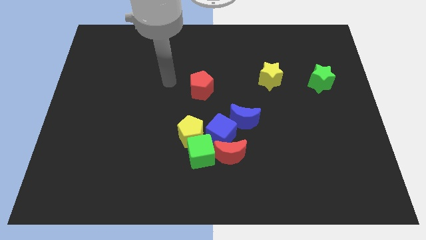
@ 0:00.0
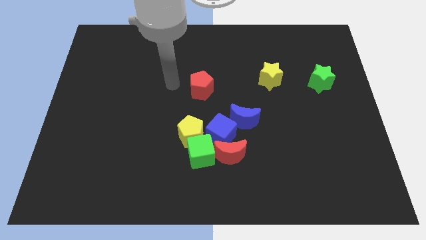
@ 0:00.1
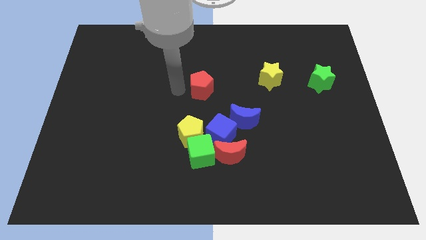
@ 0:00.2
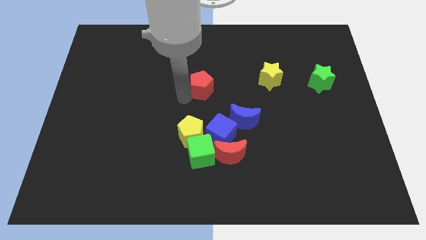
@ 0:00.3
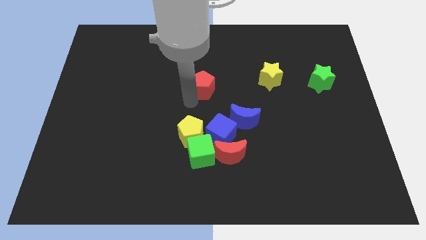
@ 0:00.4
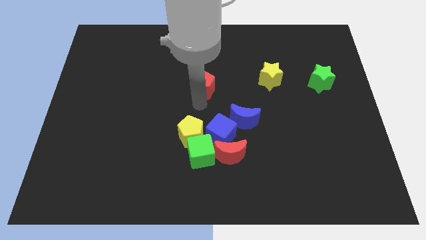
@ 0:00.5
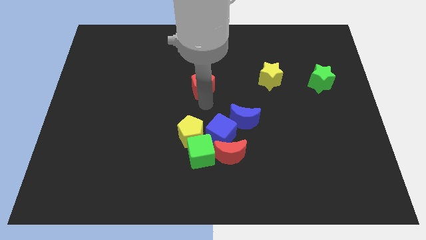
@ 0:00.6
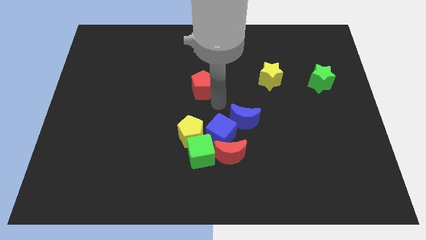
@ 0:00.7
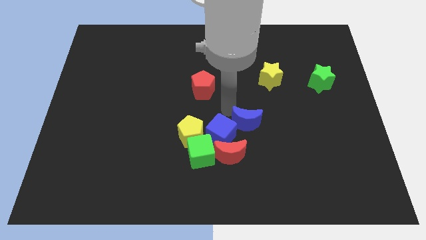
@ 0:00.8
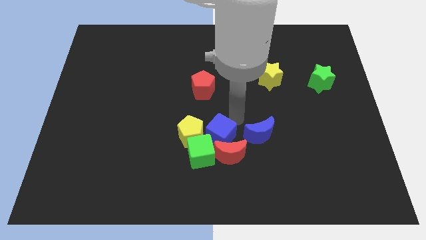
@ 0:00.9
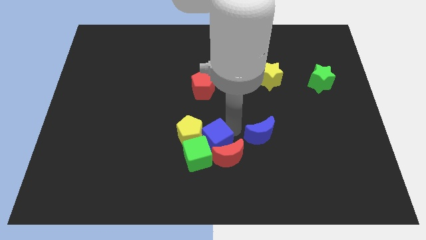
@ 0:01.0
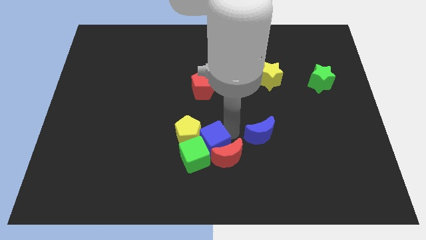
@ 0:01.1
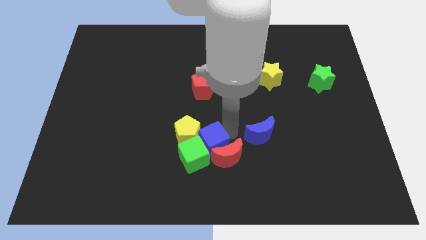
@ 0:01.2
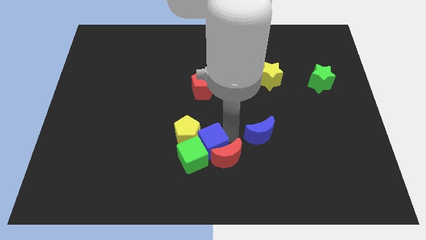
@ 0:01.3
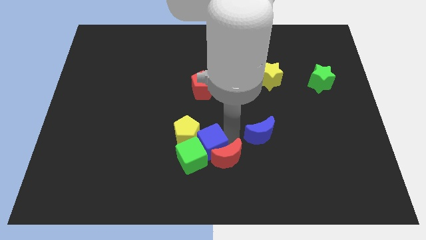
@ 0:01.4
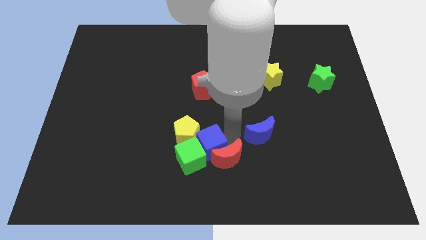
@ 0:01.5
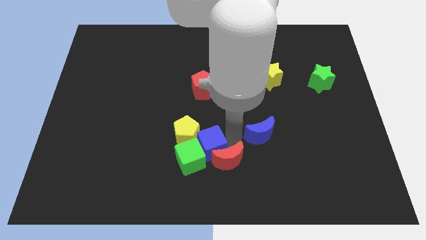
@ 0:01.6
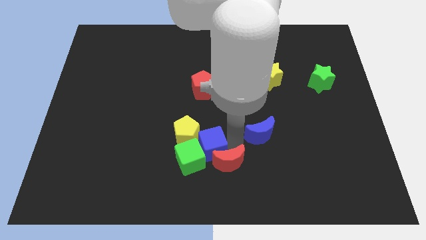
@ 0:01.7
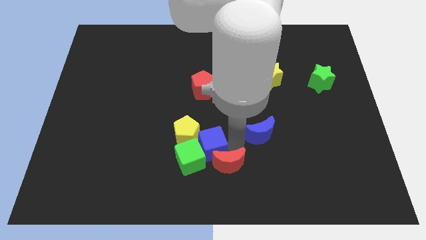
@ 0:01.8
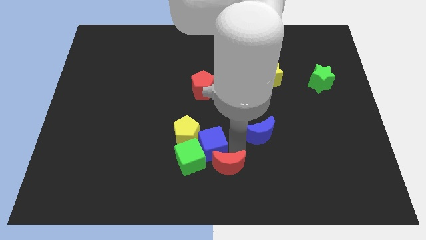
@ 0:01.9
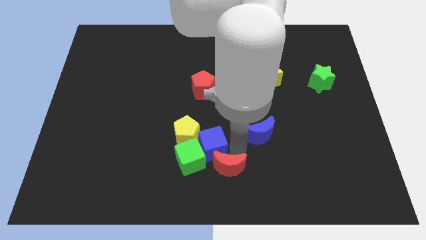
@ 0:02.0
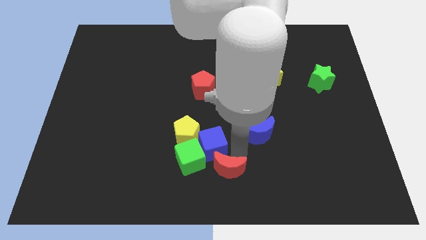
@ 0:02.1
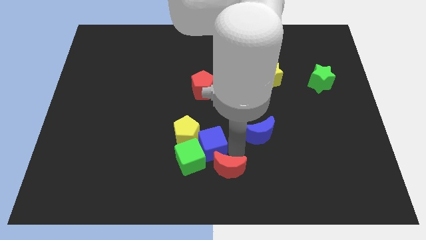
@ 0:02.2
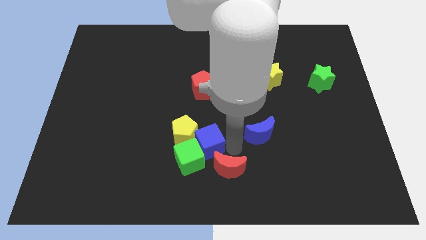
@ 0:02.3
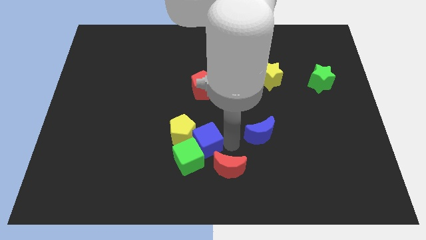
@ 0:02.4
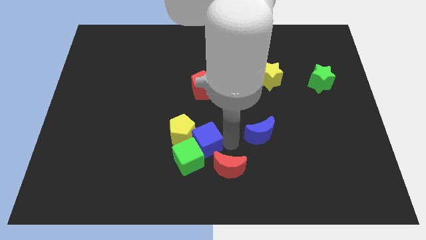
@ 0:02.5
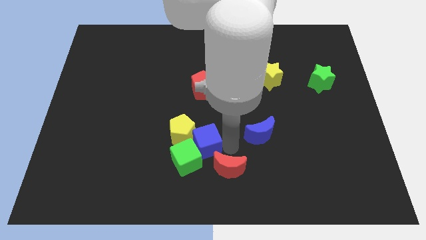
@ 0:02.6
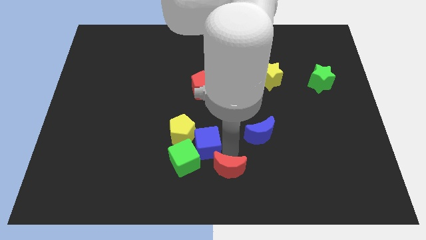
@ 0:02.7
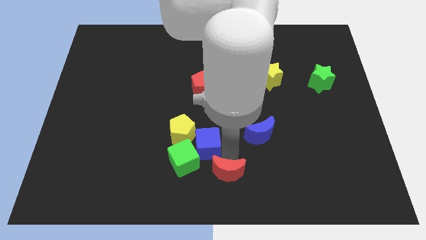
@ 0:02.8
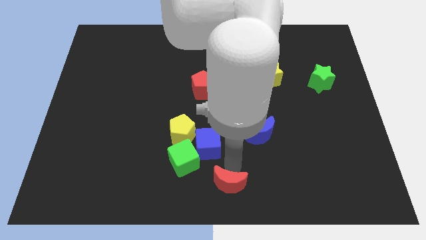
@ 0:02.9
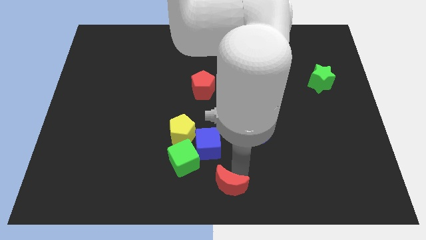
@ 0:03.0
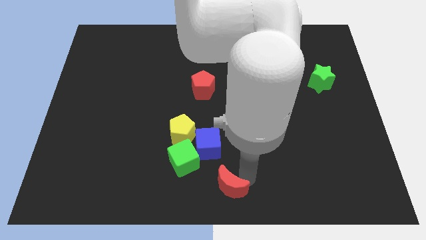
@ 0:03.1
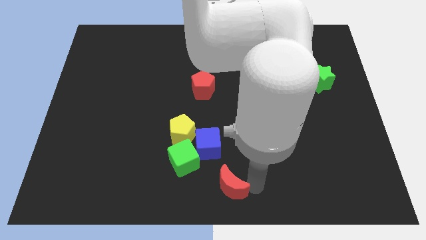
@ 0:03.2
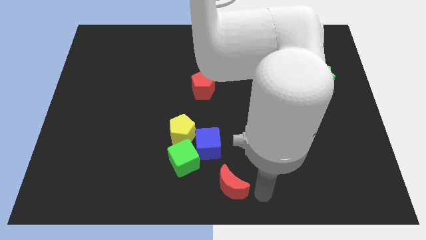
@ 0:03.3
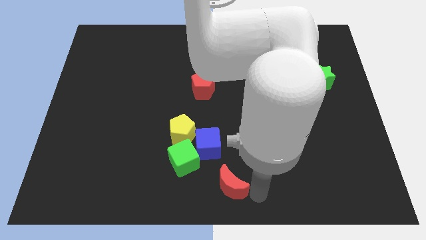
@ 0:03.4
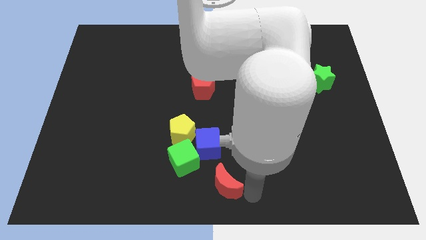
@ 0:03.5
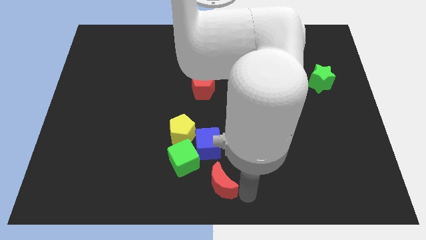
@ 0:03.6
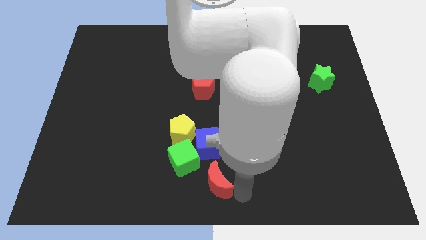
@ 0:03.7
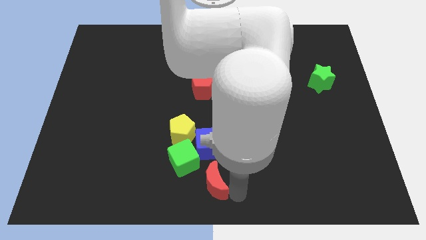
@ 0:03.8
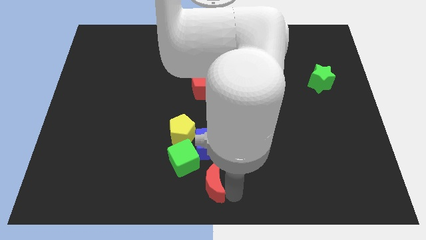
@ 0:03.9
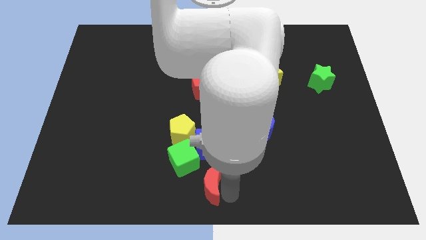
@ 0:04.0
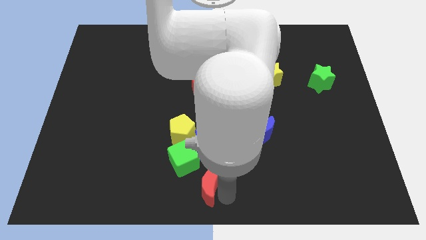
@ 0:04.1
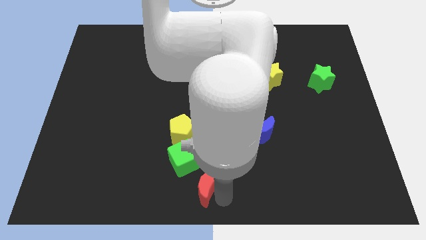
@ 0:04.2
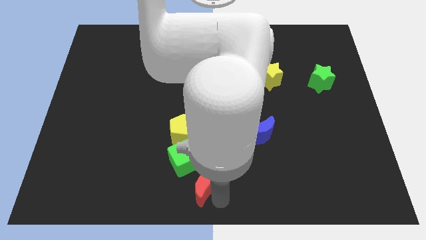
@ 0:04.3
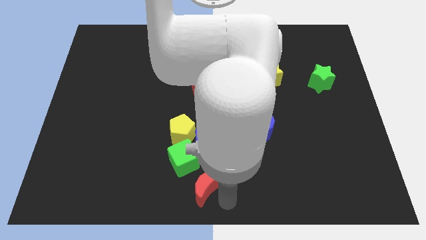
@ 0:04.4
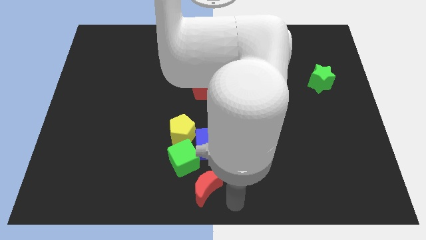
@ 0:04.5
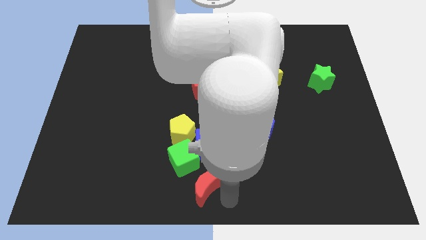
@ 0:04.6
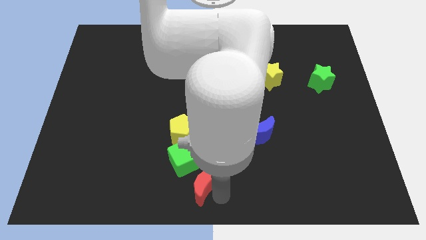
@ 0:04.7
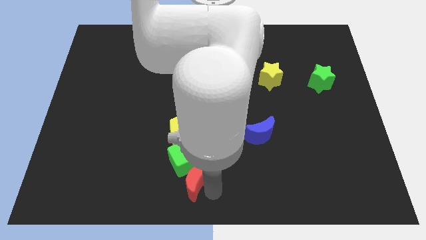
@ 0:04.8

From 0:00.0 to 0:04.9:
put the red moon to the bottom of the yellow pentagon

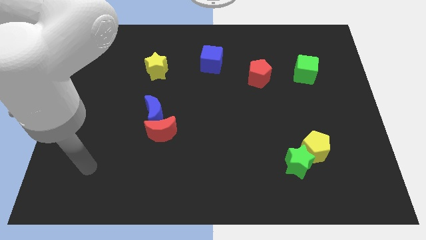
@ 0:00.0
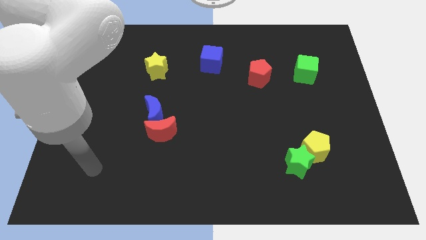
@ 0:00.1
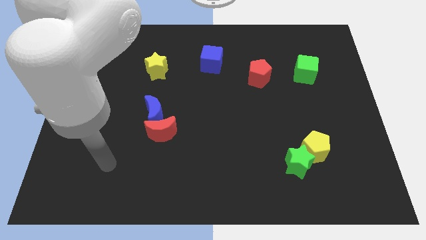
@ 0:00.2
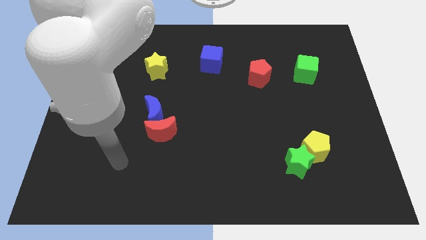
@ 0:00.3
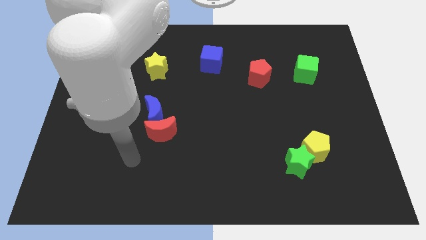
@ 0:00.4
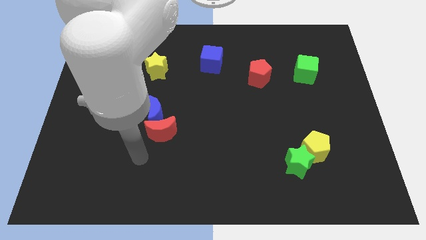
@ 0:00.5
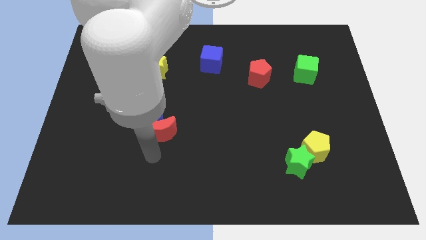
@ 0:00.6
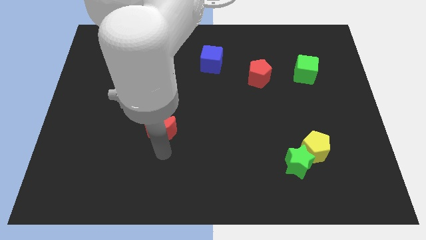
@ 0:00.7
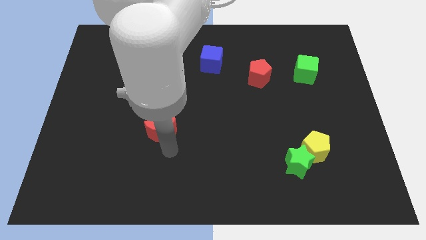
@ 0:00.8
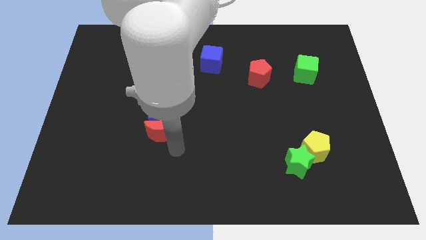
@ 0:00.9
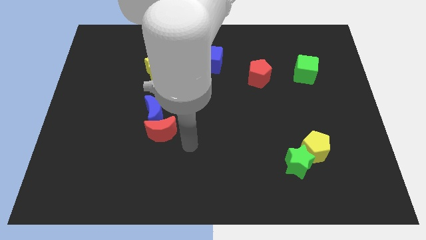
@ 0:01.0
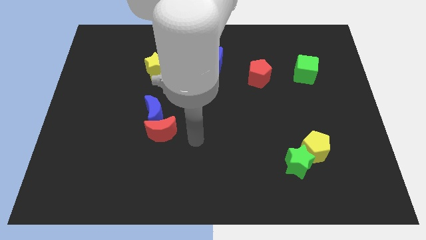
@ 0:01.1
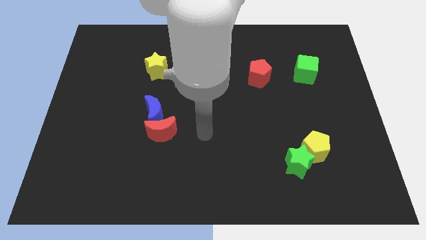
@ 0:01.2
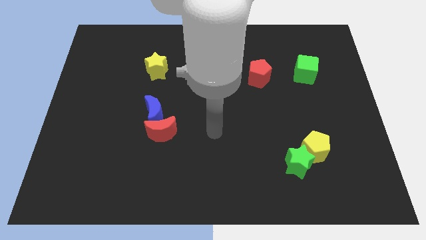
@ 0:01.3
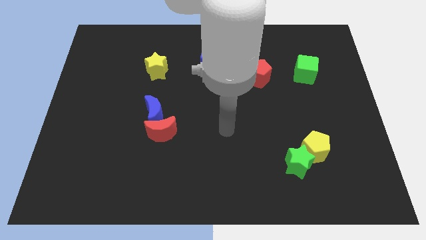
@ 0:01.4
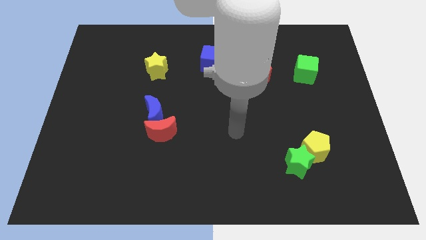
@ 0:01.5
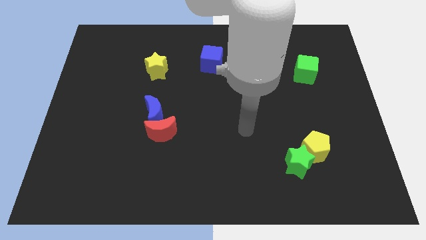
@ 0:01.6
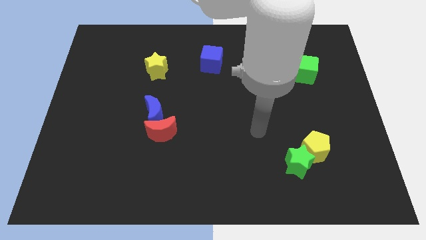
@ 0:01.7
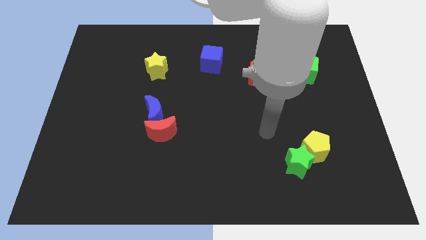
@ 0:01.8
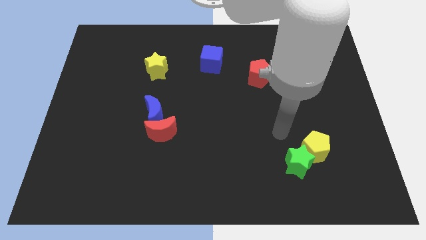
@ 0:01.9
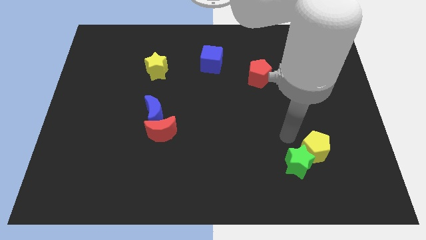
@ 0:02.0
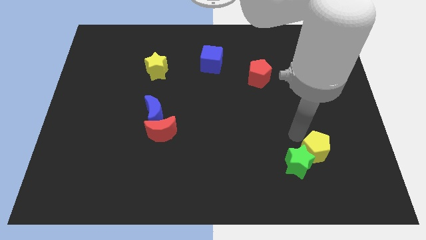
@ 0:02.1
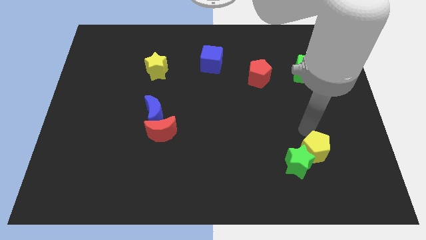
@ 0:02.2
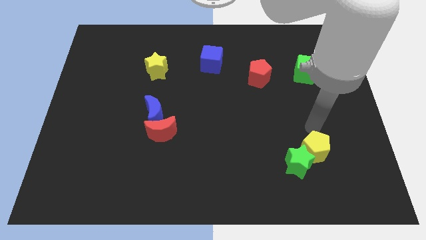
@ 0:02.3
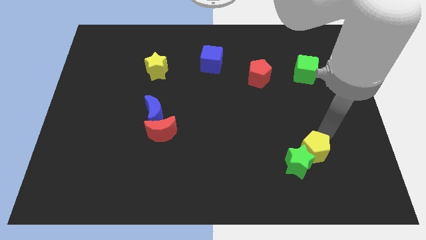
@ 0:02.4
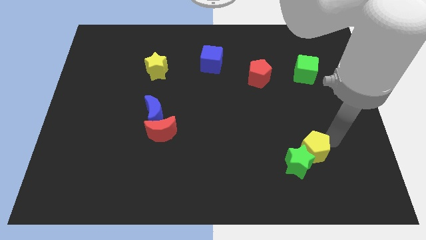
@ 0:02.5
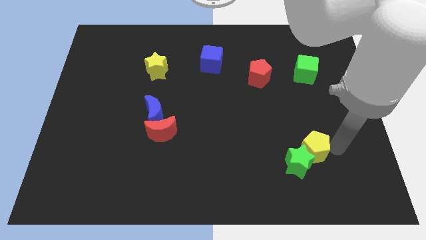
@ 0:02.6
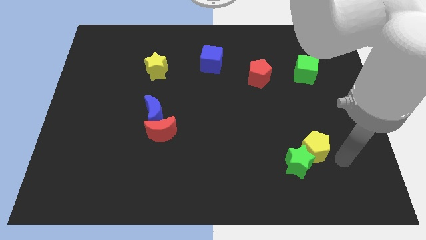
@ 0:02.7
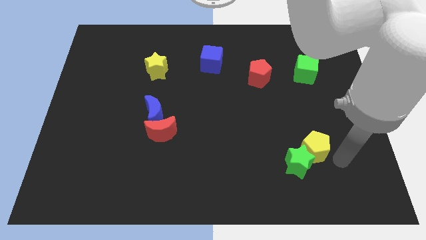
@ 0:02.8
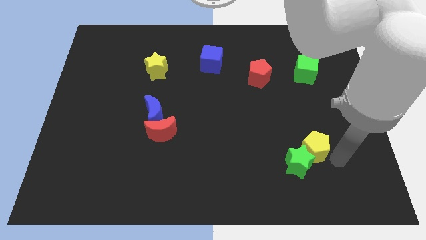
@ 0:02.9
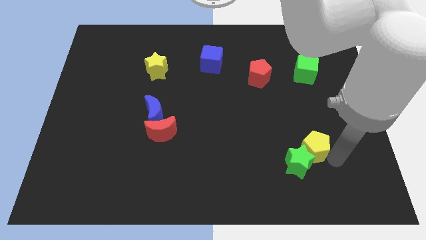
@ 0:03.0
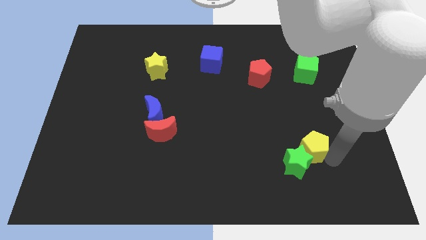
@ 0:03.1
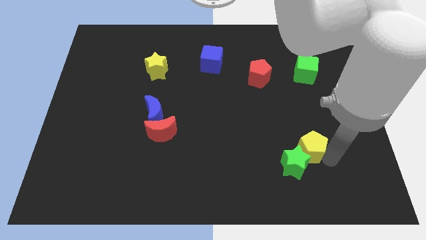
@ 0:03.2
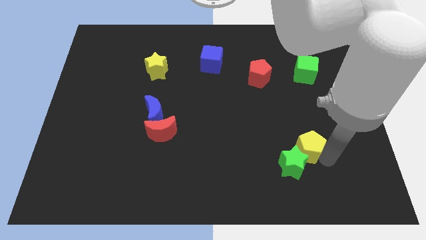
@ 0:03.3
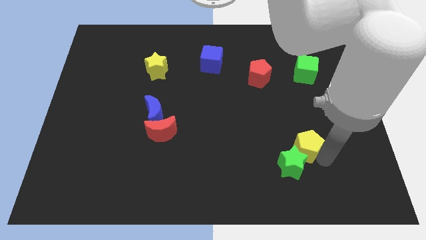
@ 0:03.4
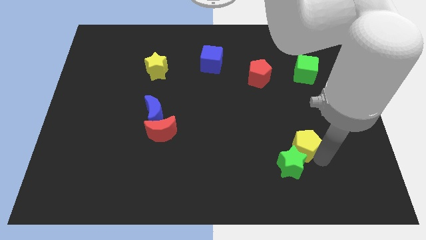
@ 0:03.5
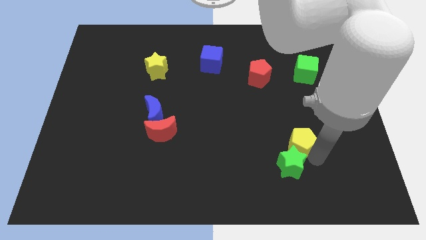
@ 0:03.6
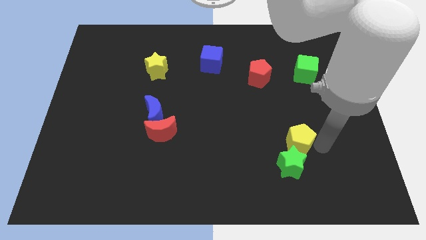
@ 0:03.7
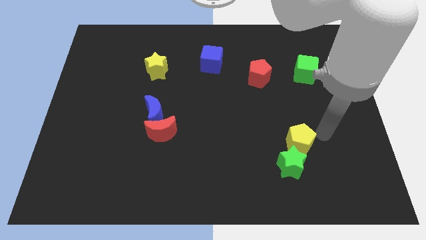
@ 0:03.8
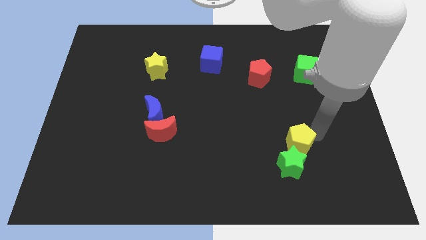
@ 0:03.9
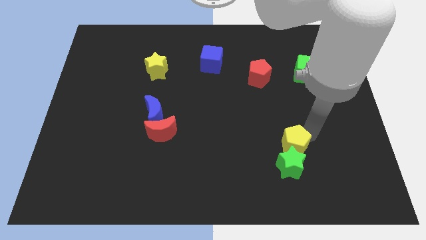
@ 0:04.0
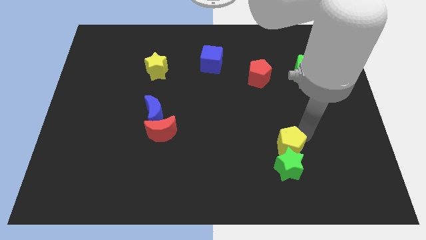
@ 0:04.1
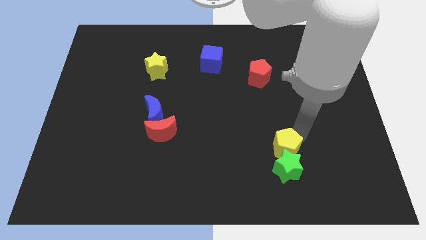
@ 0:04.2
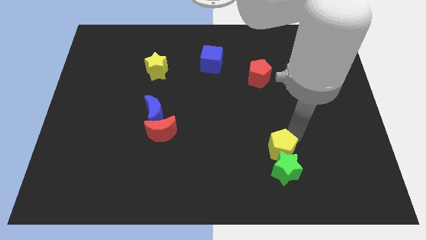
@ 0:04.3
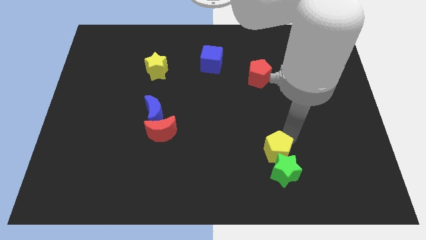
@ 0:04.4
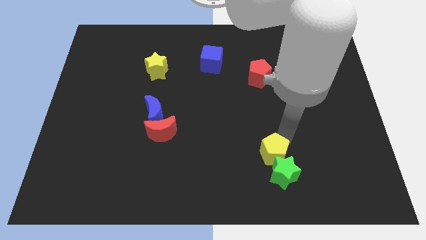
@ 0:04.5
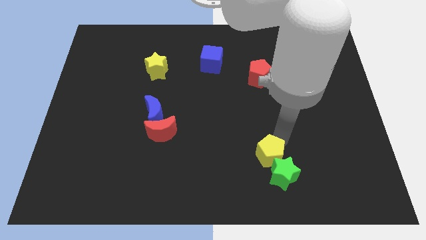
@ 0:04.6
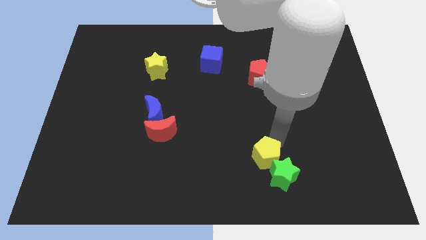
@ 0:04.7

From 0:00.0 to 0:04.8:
move the yellow pentagon left of the green star
